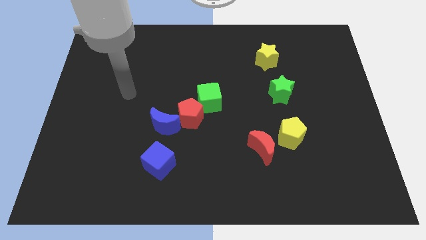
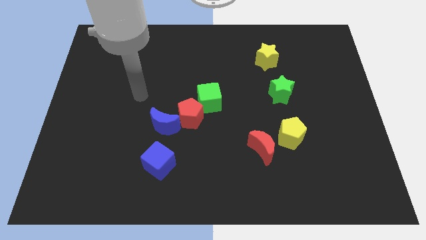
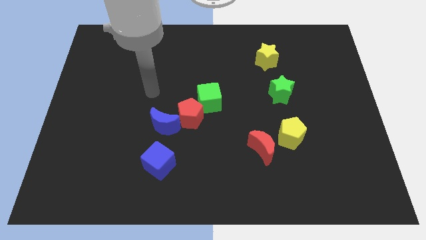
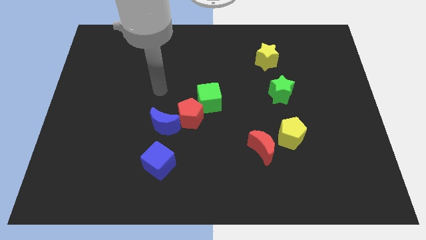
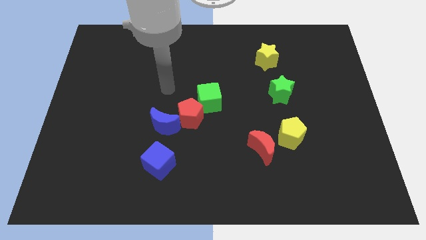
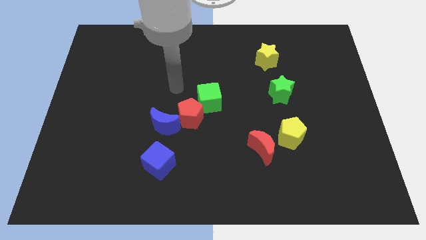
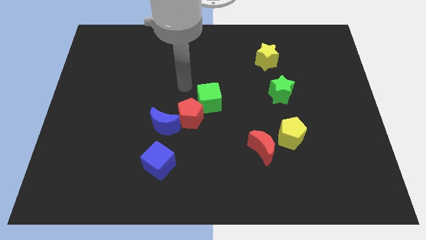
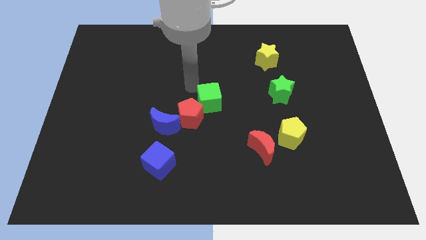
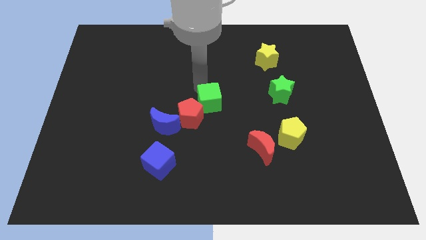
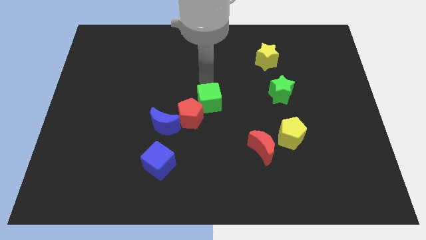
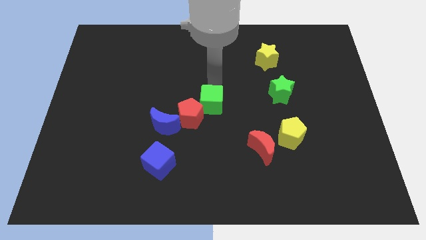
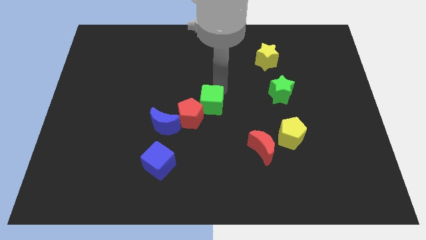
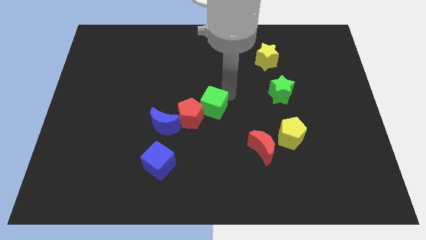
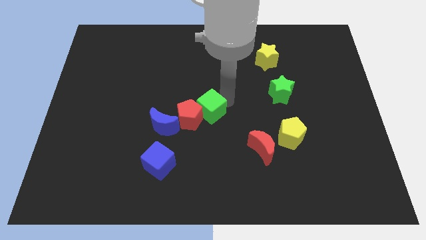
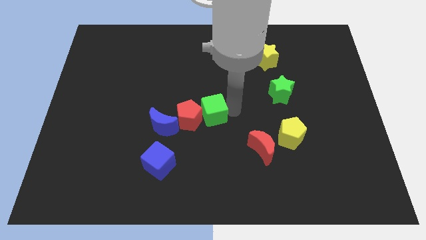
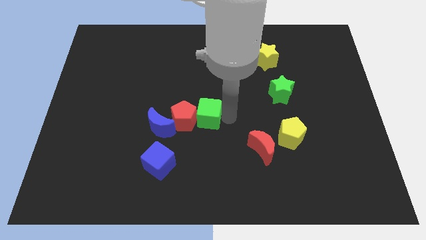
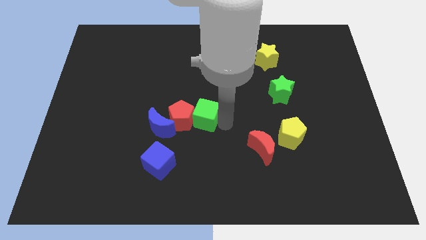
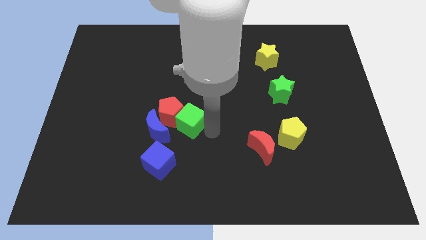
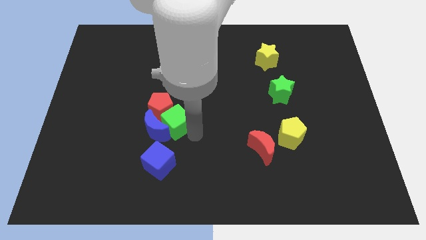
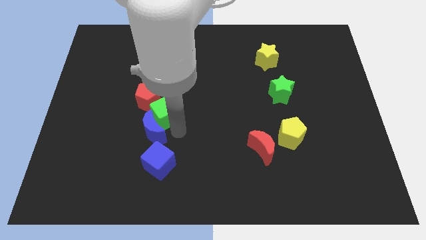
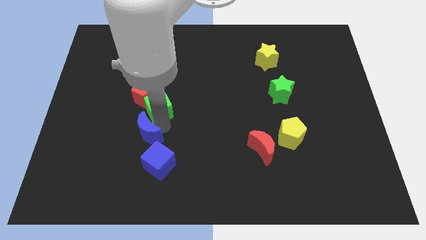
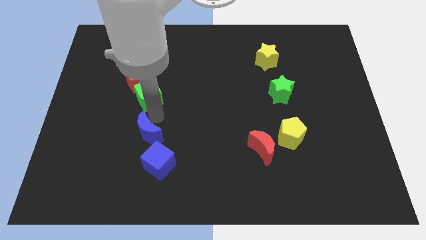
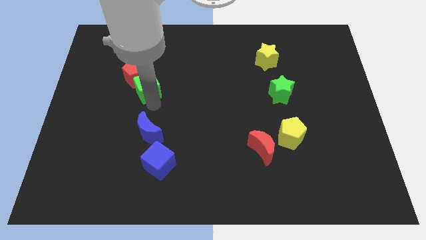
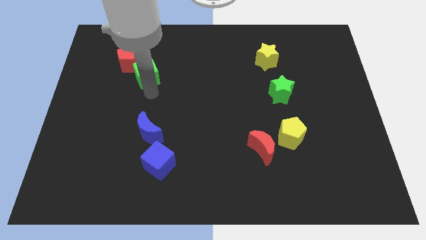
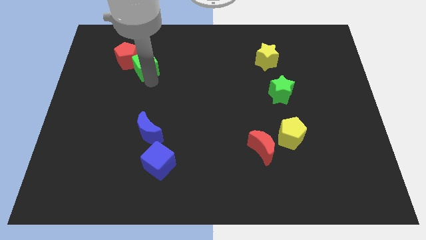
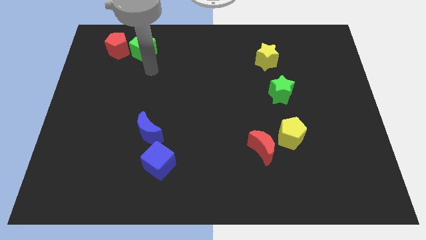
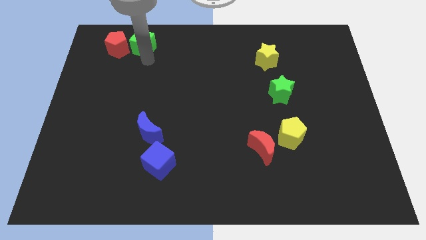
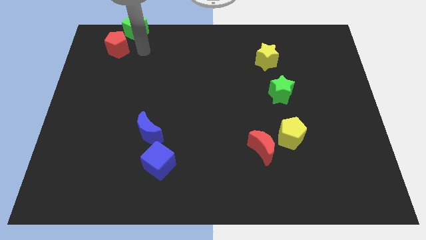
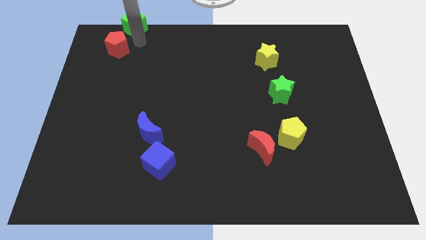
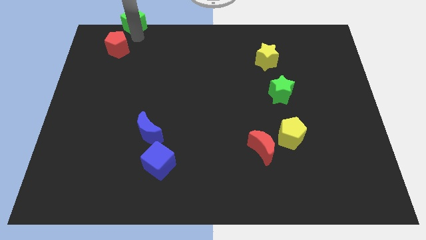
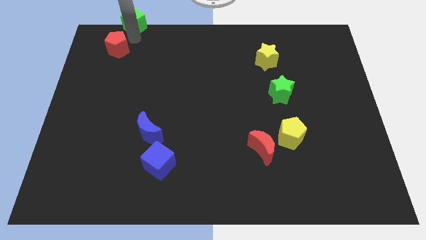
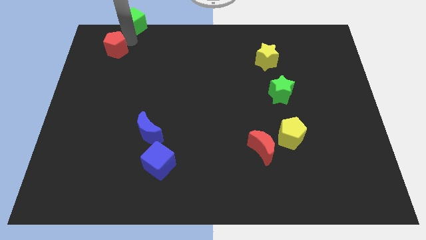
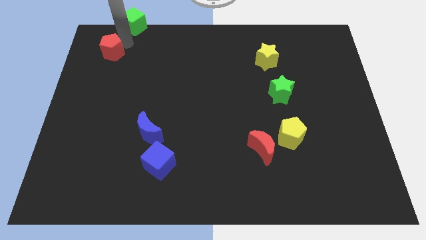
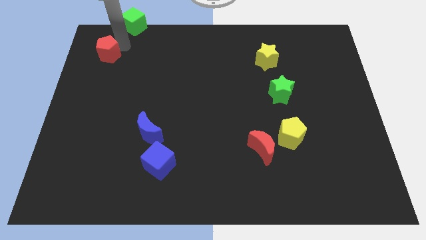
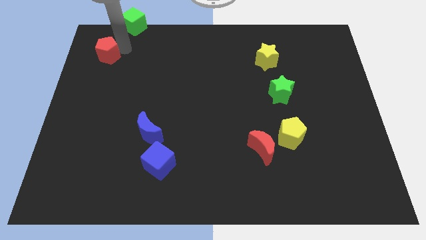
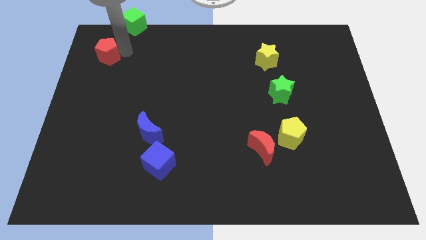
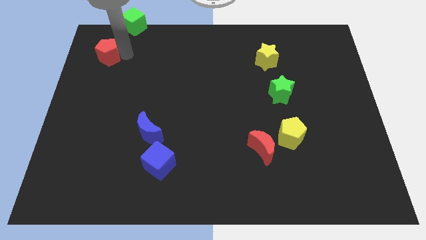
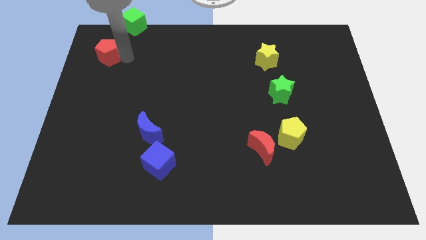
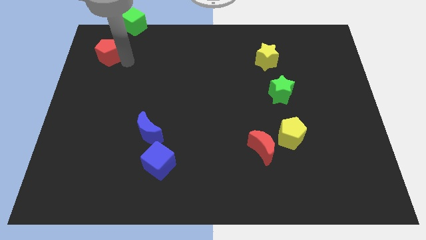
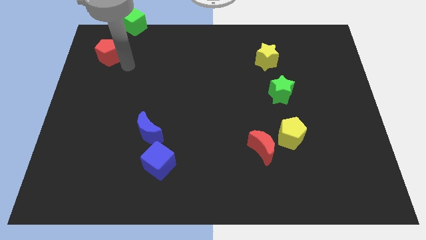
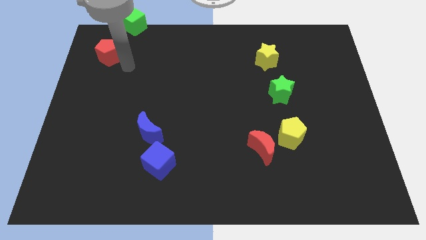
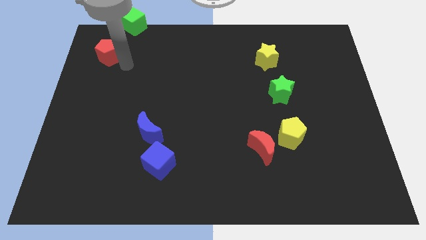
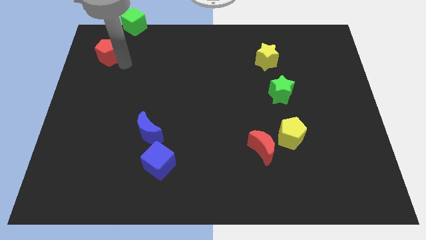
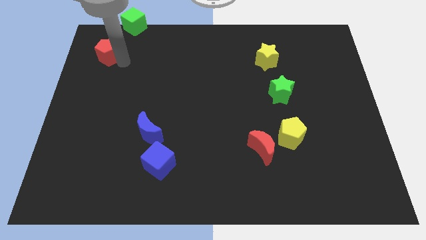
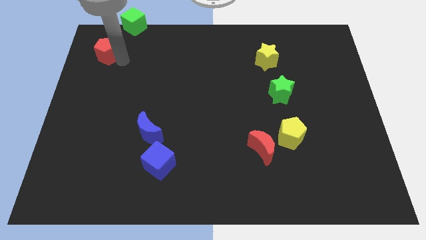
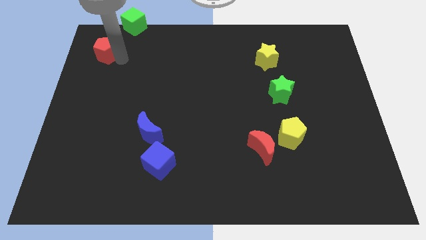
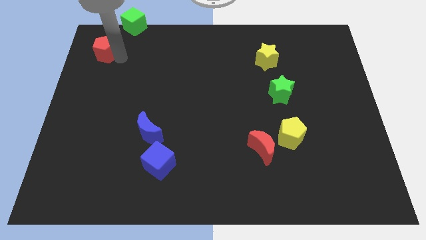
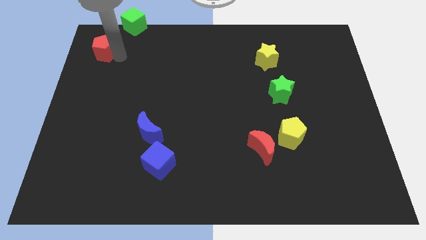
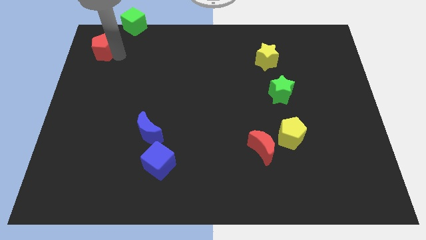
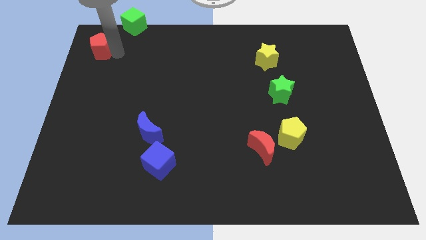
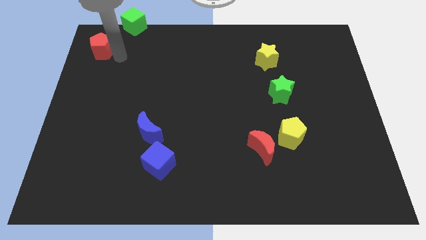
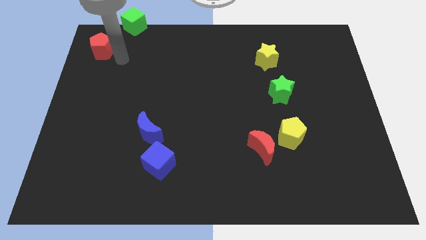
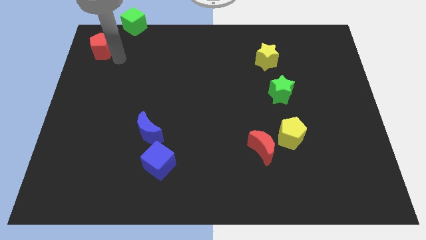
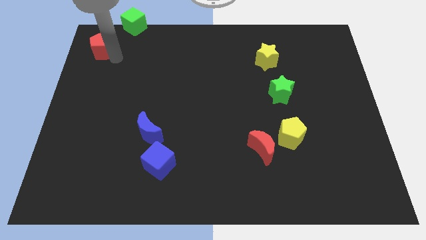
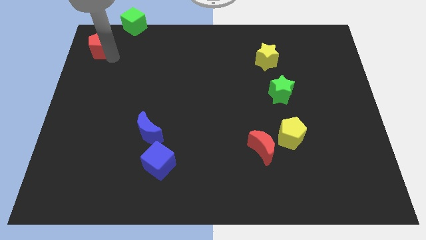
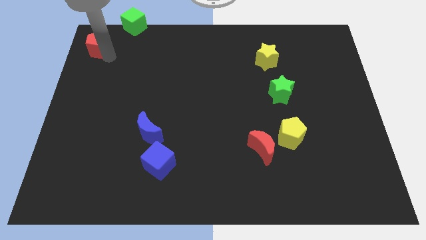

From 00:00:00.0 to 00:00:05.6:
move the red pentagon to the upper left corner

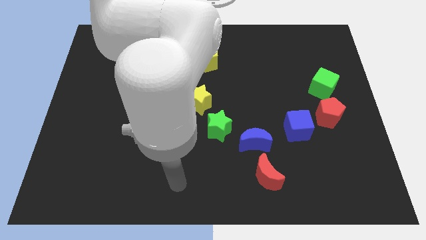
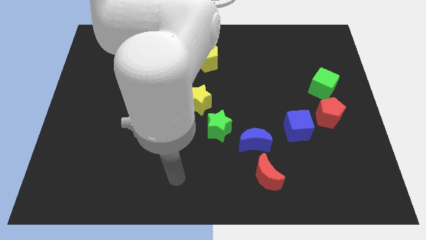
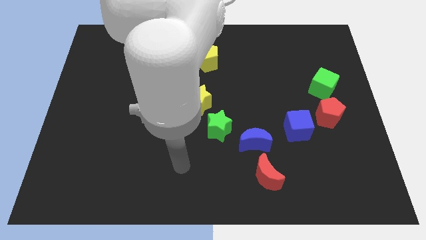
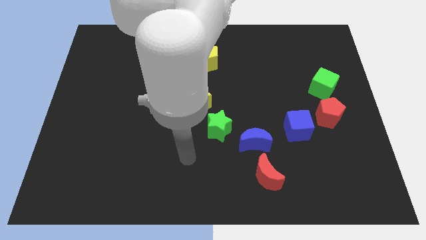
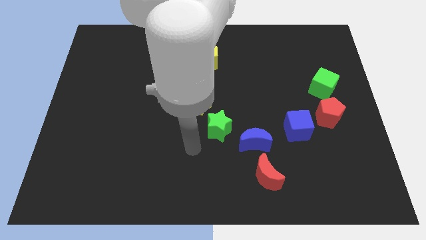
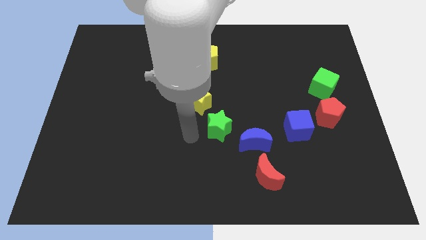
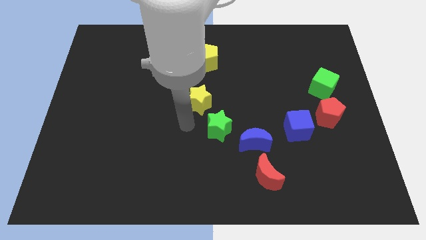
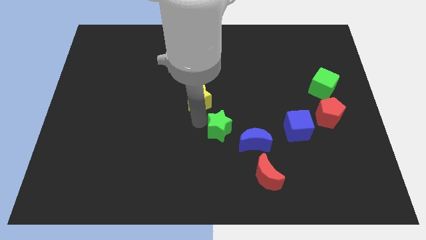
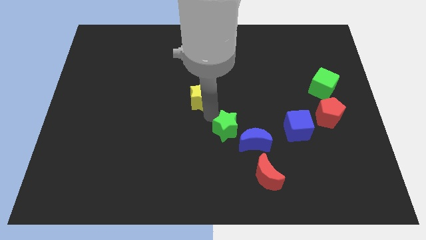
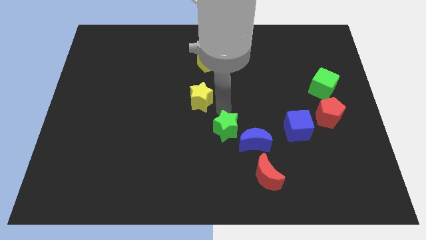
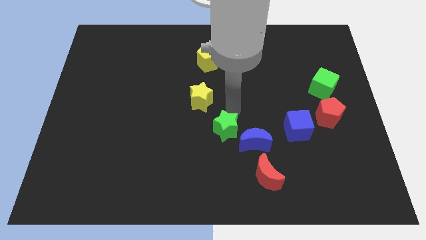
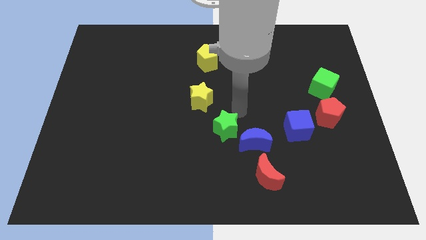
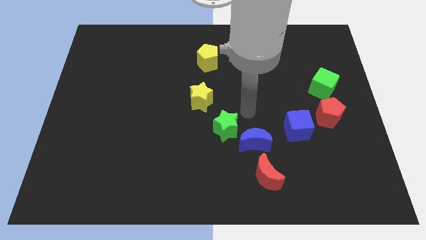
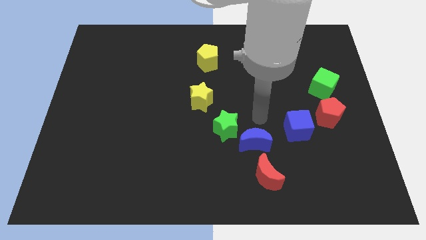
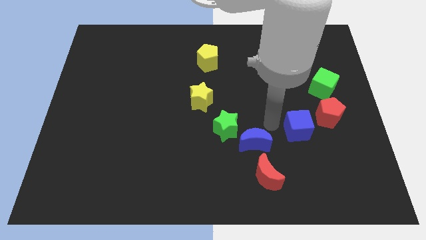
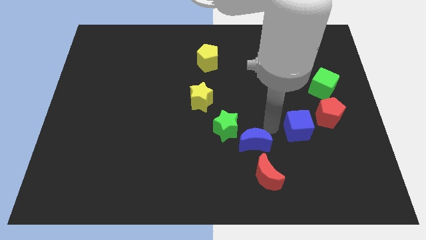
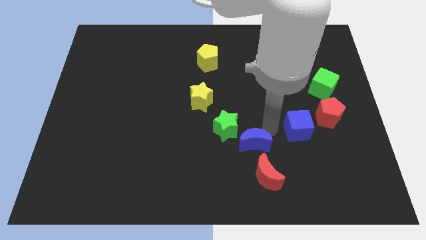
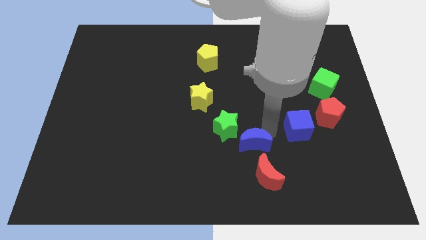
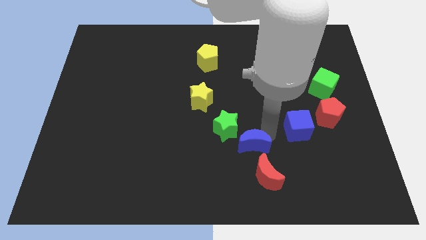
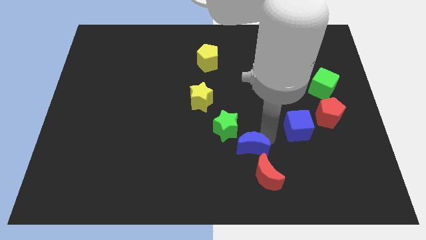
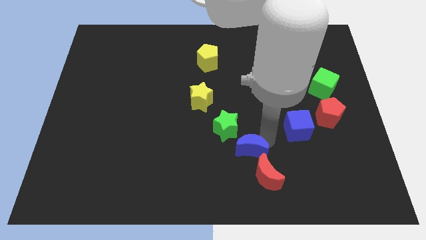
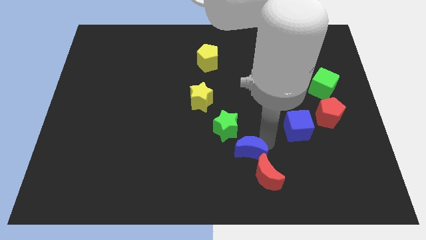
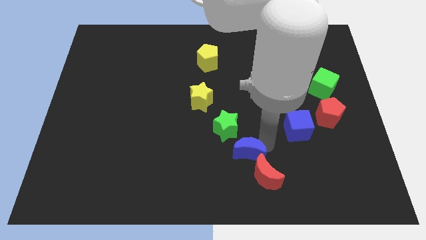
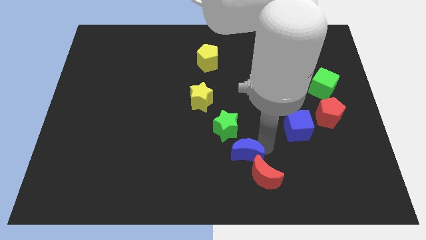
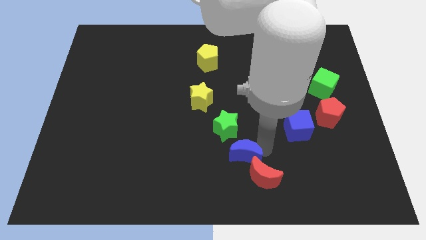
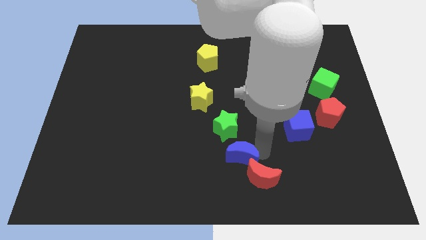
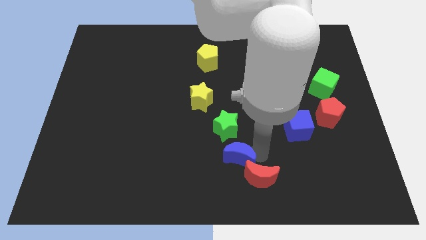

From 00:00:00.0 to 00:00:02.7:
push the blue moon to the bottom
